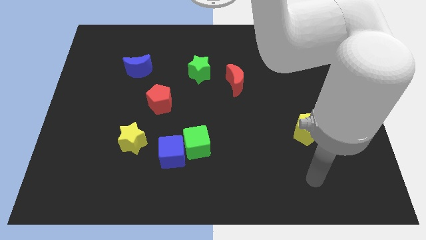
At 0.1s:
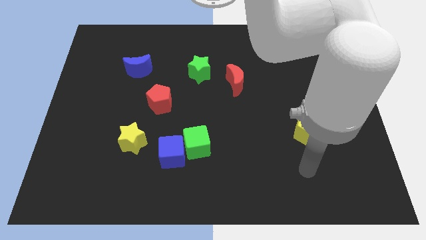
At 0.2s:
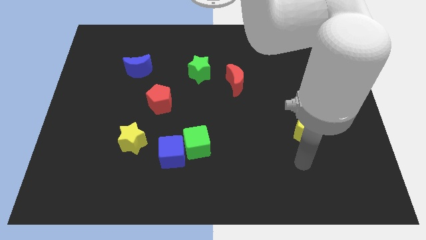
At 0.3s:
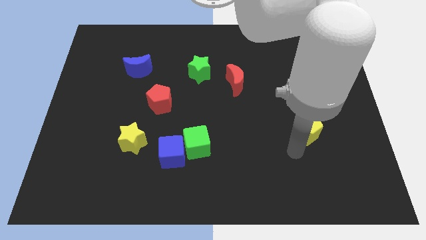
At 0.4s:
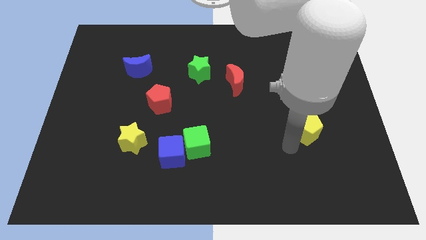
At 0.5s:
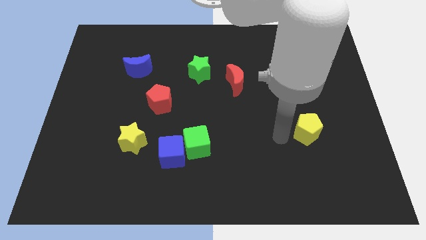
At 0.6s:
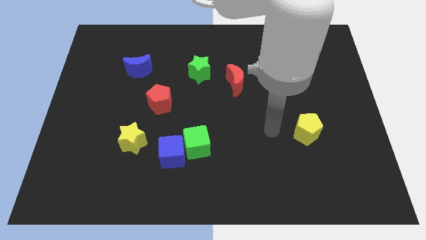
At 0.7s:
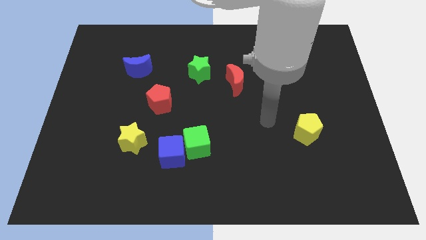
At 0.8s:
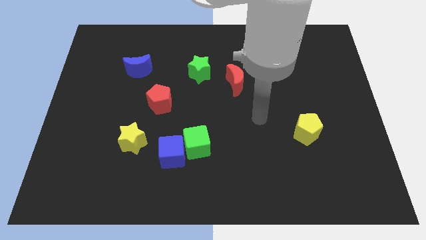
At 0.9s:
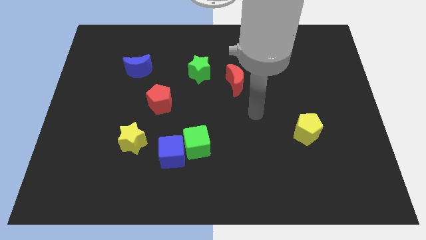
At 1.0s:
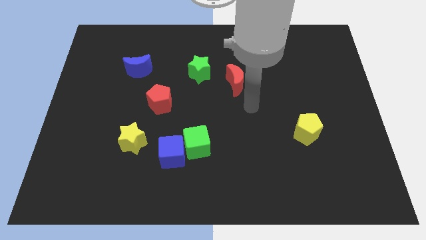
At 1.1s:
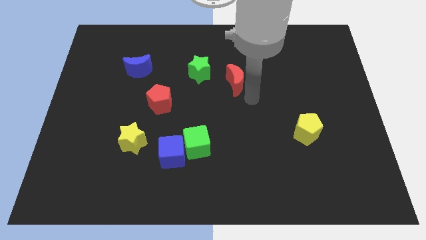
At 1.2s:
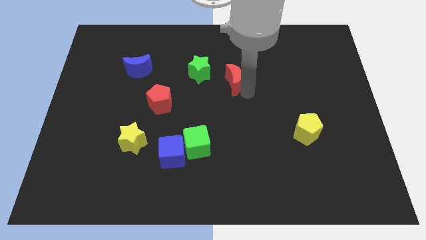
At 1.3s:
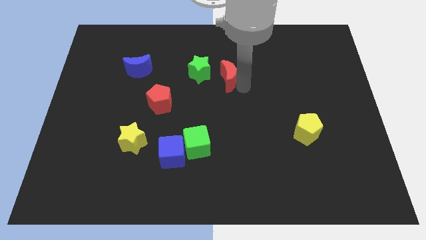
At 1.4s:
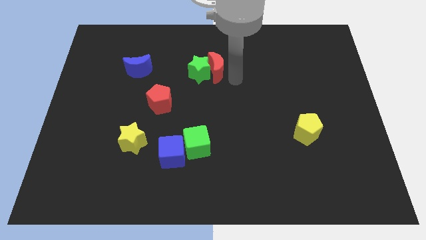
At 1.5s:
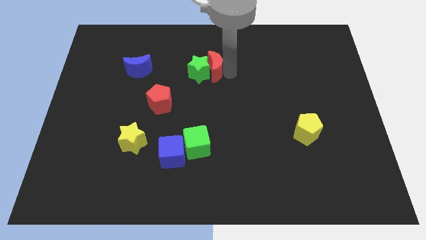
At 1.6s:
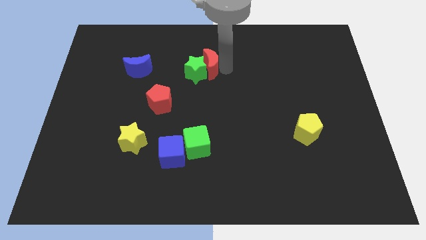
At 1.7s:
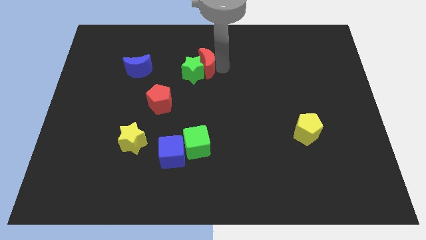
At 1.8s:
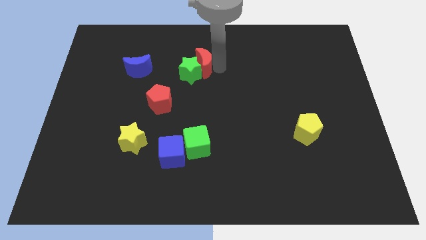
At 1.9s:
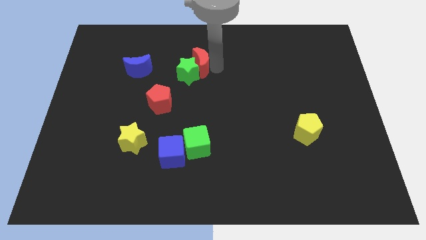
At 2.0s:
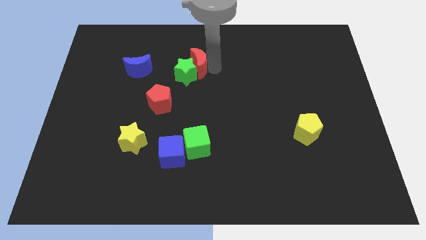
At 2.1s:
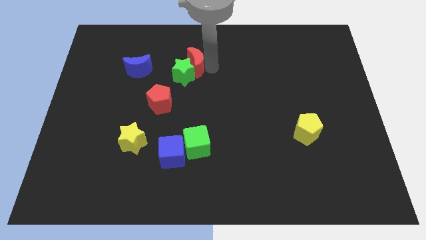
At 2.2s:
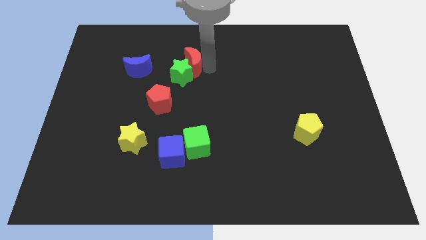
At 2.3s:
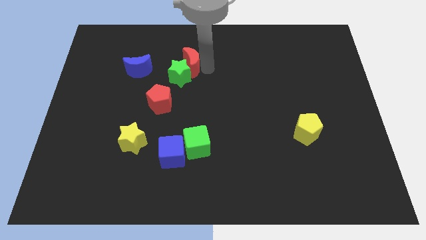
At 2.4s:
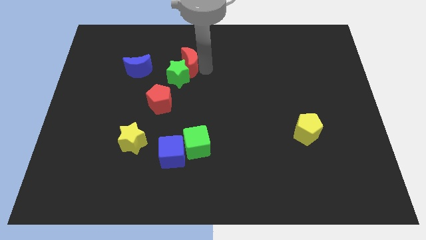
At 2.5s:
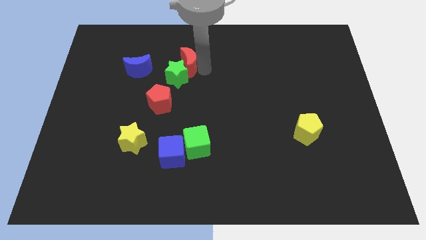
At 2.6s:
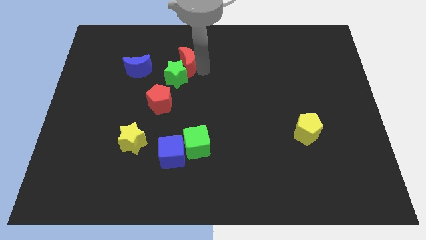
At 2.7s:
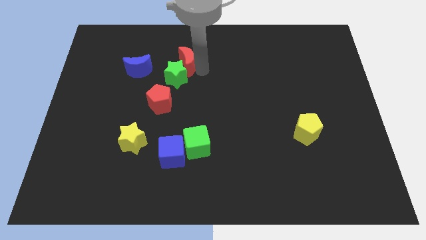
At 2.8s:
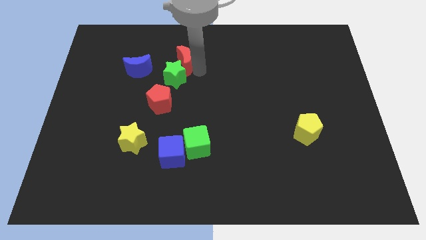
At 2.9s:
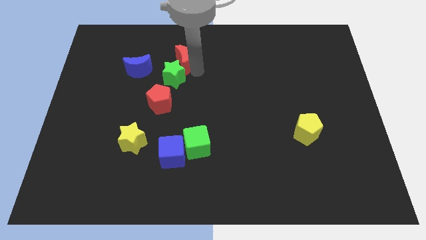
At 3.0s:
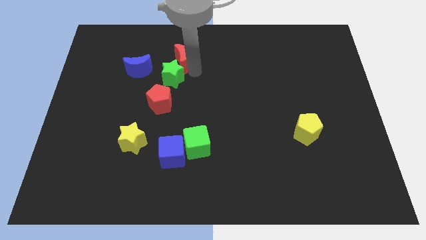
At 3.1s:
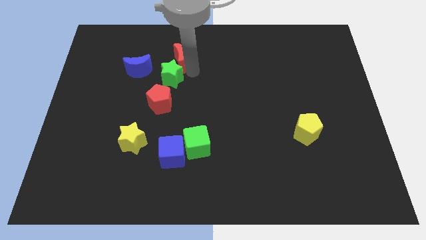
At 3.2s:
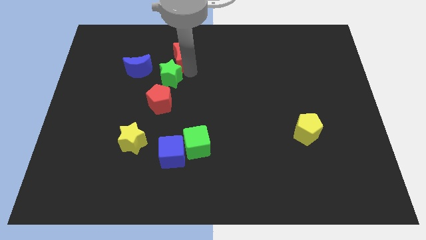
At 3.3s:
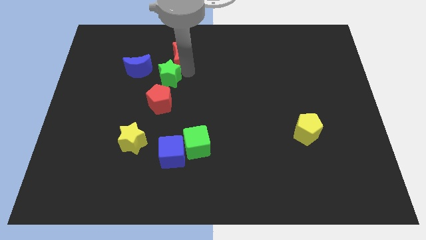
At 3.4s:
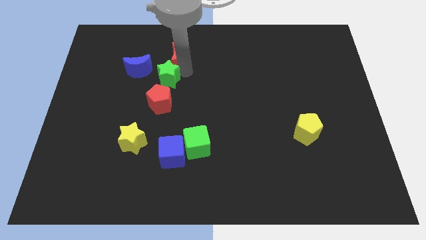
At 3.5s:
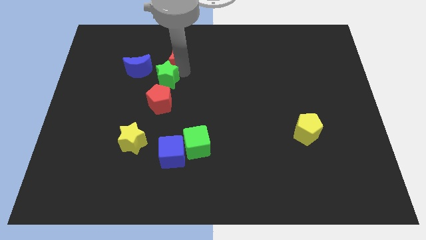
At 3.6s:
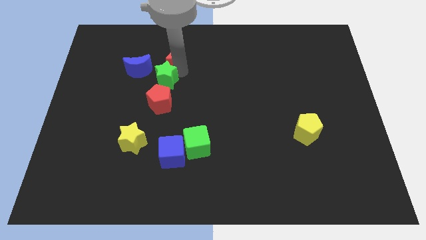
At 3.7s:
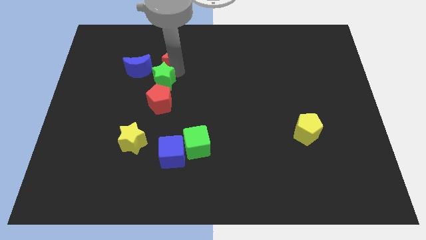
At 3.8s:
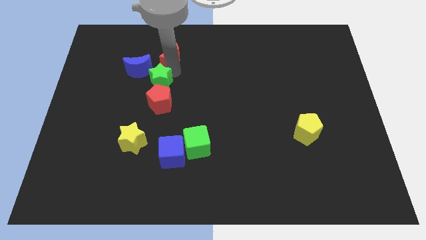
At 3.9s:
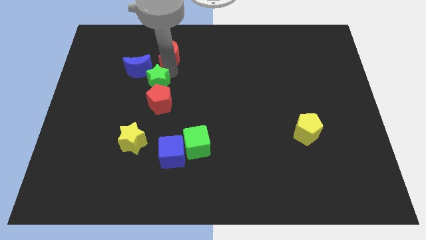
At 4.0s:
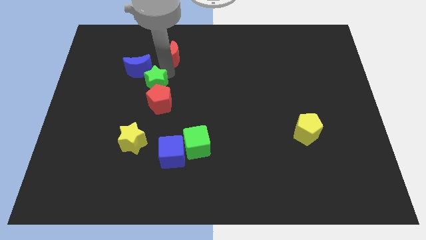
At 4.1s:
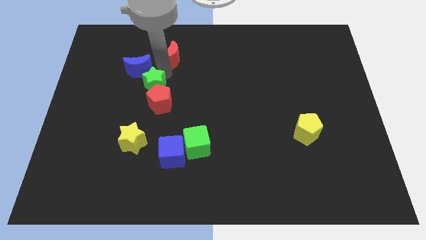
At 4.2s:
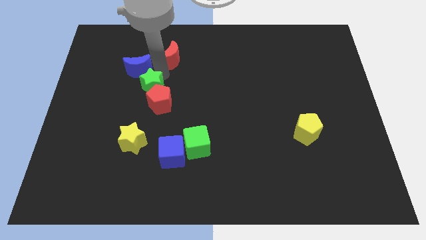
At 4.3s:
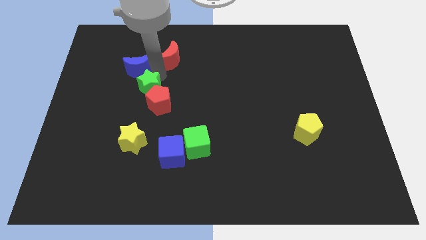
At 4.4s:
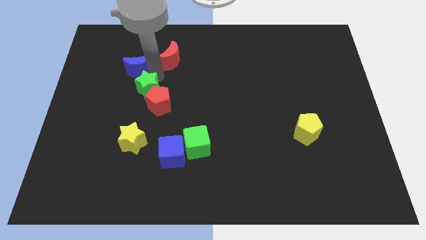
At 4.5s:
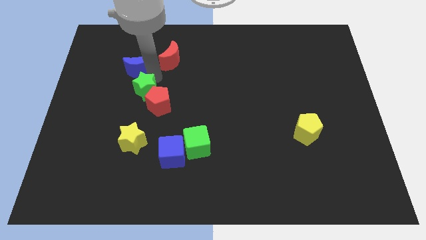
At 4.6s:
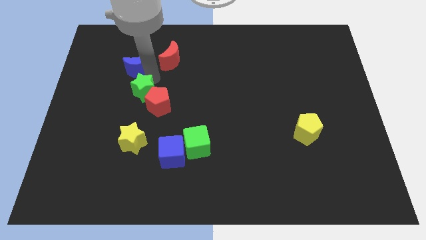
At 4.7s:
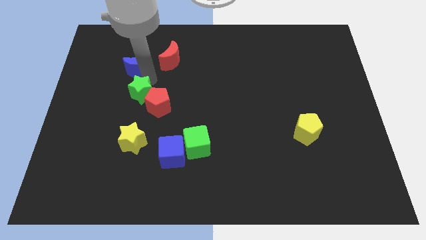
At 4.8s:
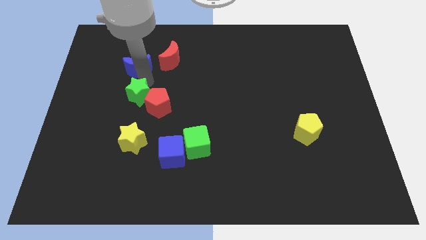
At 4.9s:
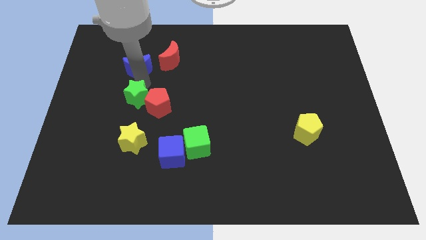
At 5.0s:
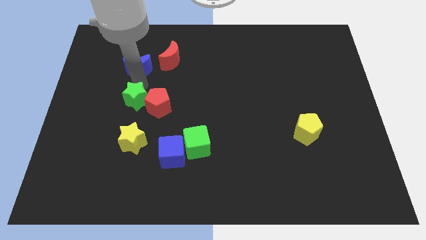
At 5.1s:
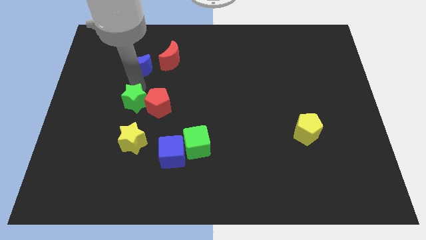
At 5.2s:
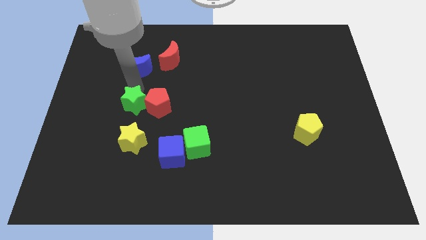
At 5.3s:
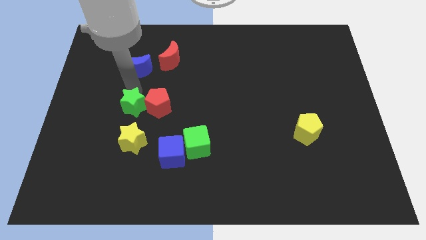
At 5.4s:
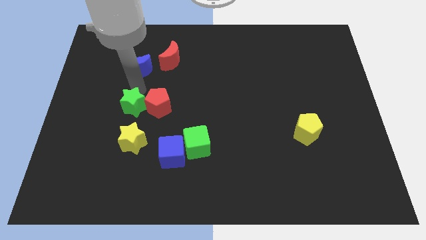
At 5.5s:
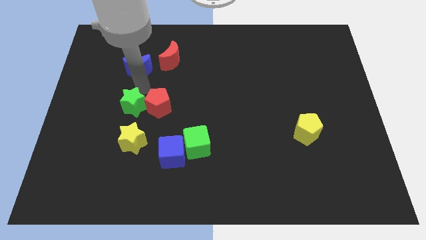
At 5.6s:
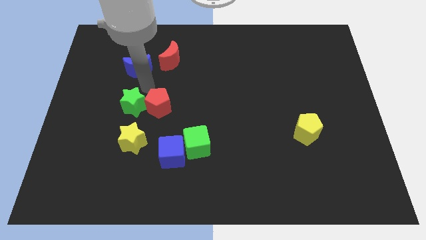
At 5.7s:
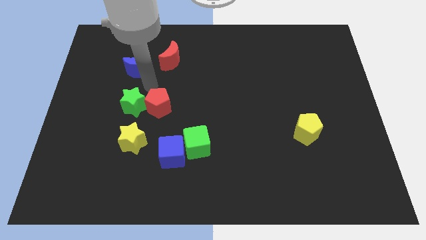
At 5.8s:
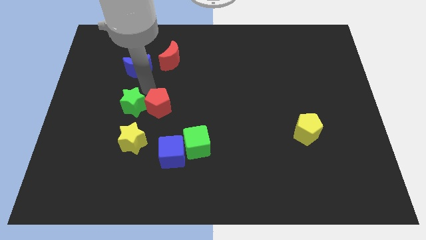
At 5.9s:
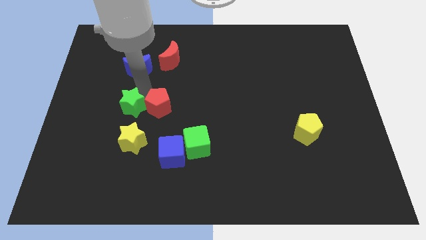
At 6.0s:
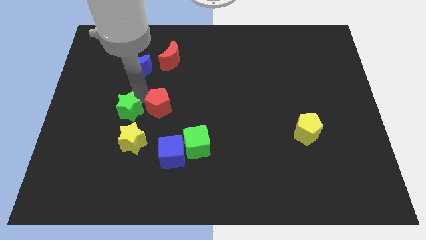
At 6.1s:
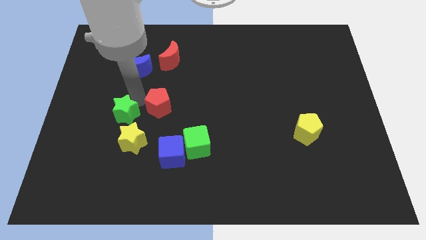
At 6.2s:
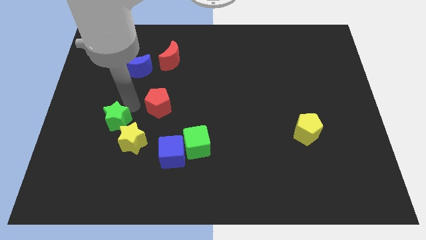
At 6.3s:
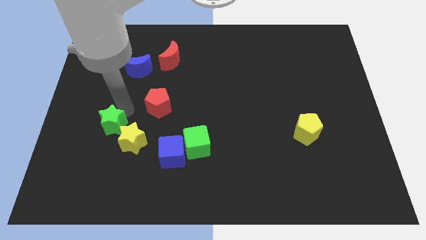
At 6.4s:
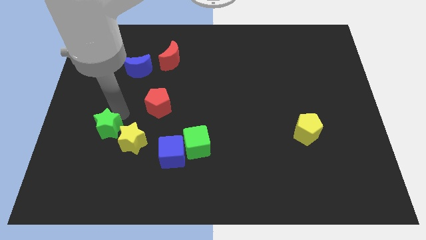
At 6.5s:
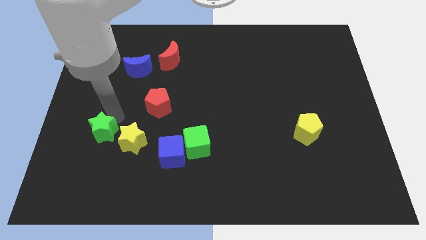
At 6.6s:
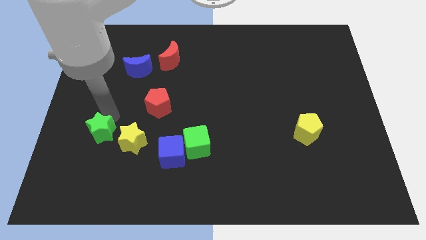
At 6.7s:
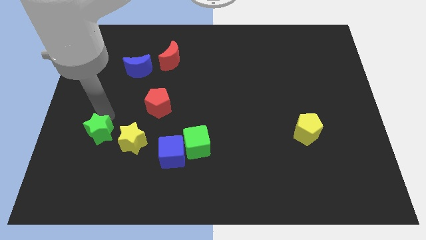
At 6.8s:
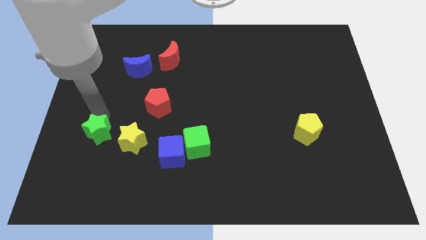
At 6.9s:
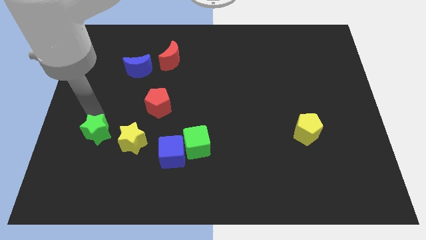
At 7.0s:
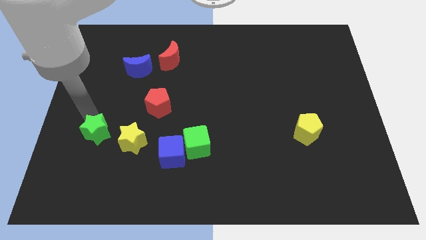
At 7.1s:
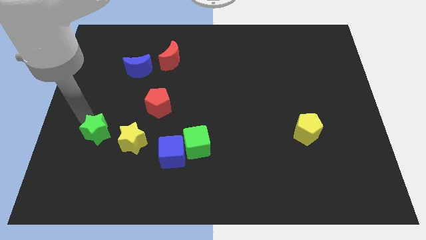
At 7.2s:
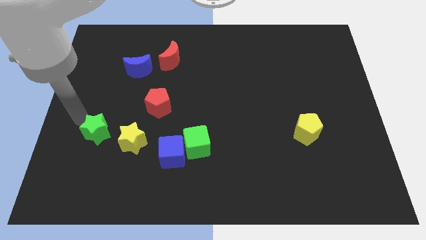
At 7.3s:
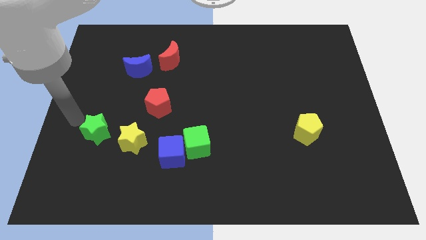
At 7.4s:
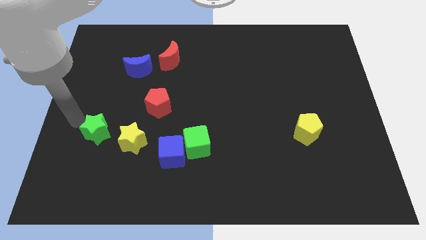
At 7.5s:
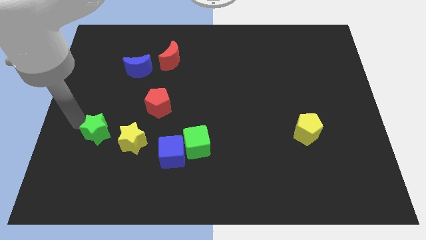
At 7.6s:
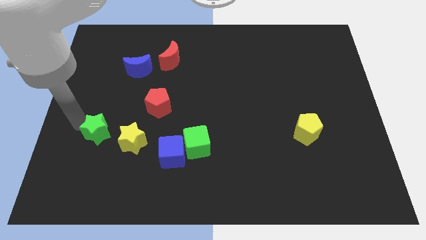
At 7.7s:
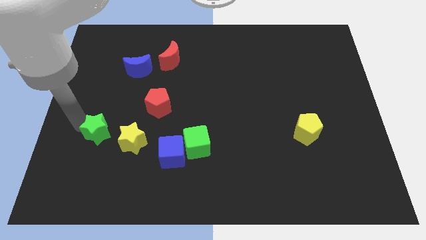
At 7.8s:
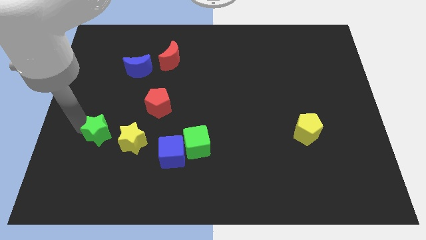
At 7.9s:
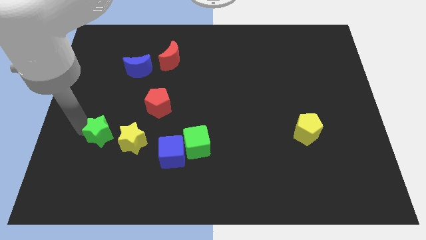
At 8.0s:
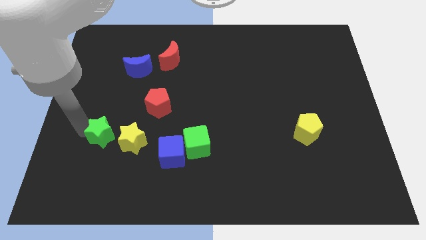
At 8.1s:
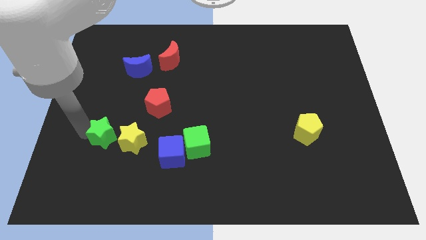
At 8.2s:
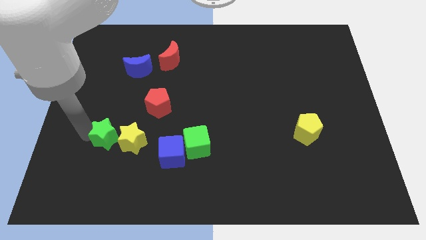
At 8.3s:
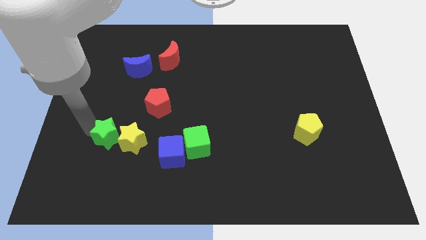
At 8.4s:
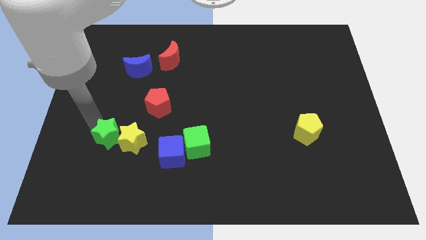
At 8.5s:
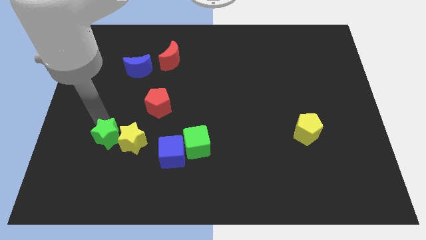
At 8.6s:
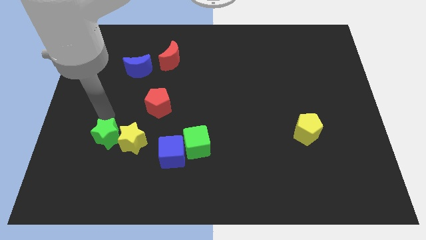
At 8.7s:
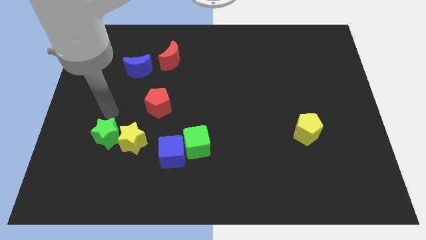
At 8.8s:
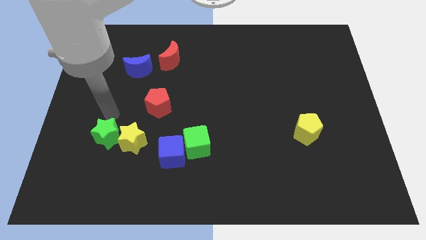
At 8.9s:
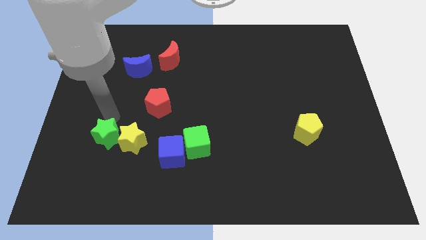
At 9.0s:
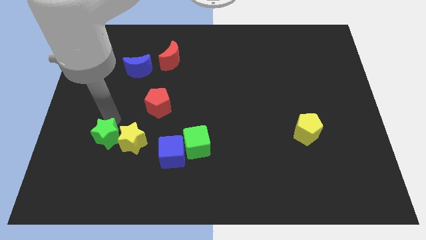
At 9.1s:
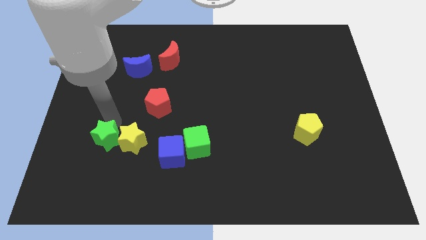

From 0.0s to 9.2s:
slide the green star to the bottom left side of the yellow star
